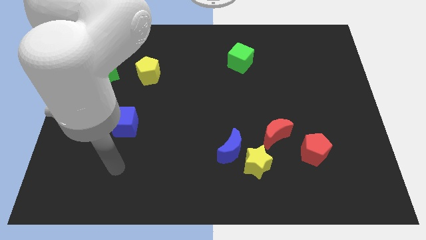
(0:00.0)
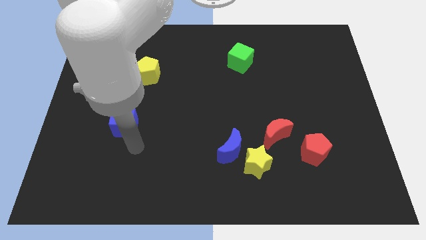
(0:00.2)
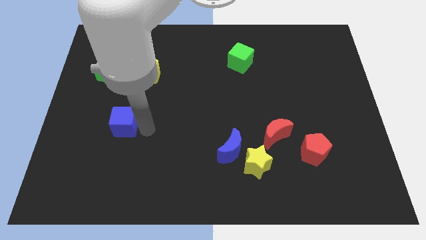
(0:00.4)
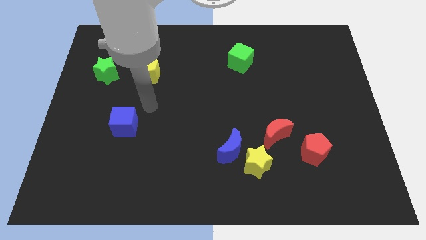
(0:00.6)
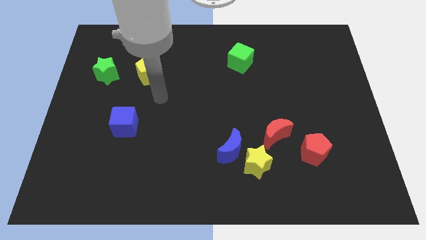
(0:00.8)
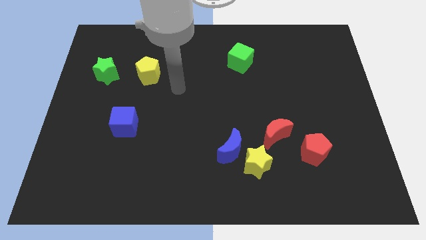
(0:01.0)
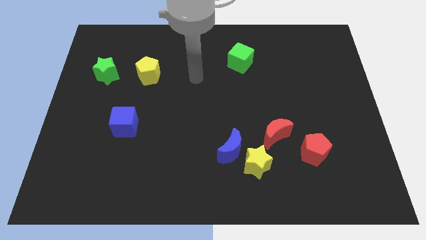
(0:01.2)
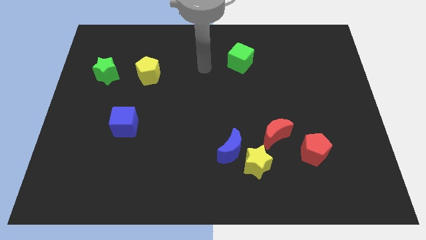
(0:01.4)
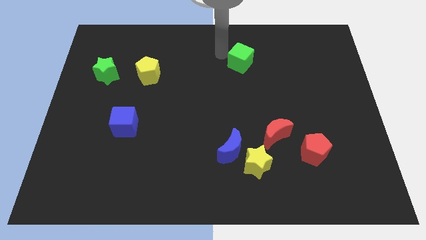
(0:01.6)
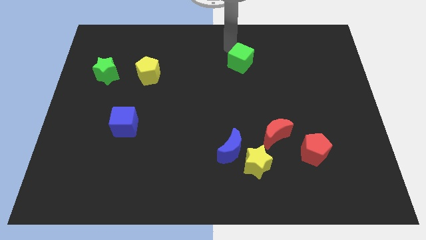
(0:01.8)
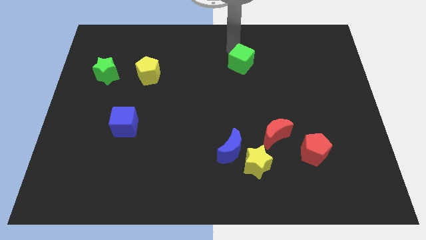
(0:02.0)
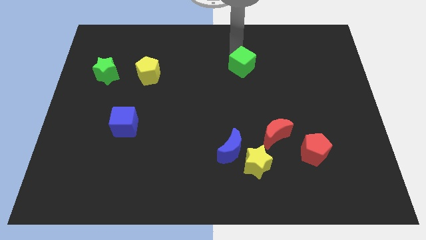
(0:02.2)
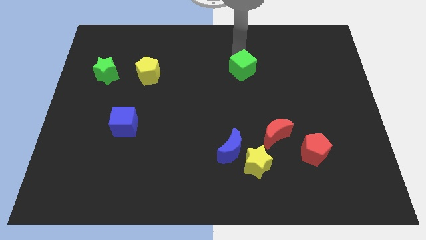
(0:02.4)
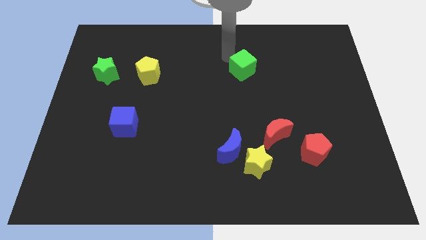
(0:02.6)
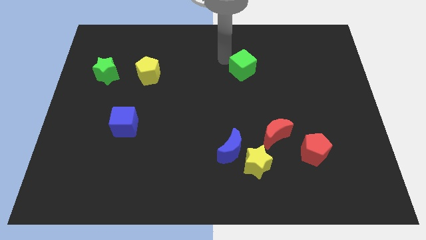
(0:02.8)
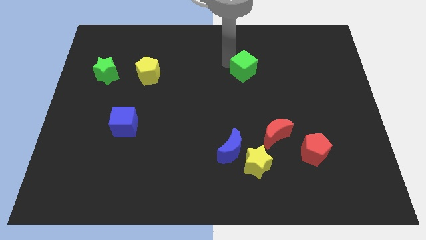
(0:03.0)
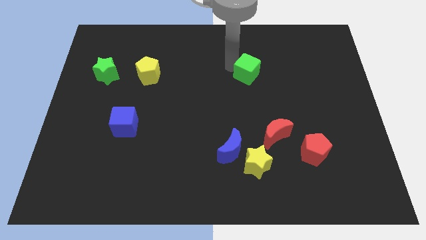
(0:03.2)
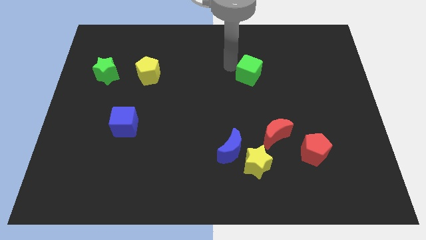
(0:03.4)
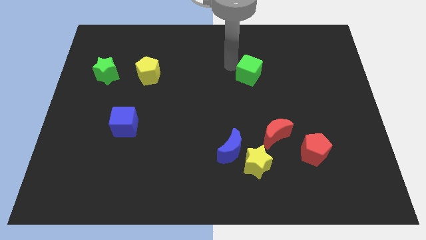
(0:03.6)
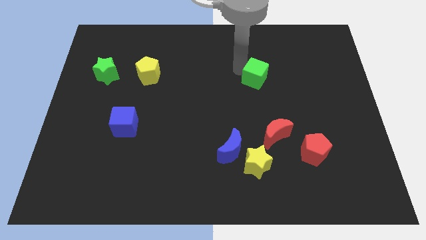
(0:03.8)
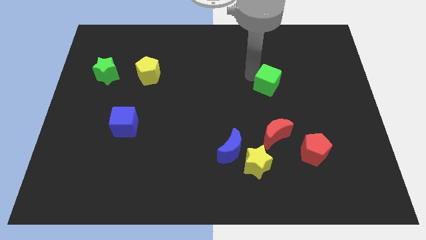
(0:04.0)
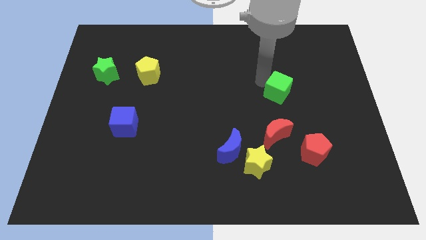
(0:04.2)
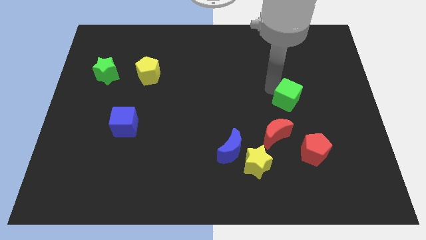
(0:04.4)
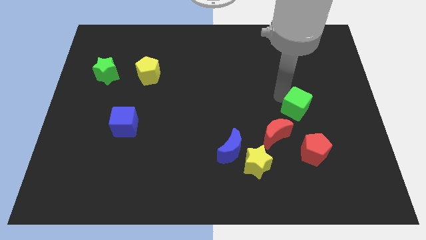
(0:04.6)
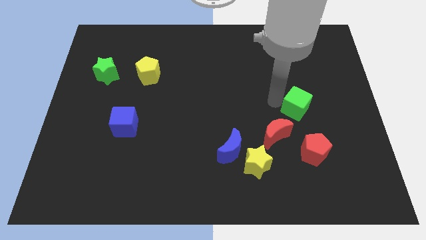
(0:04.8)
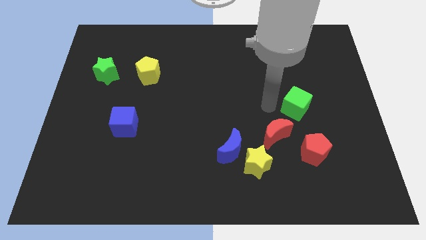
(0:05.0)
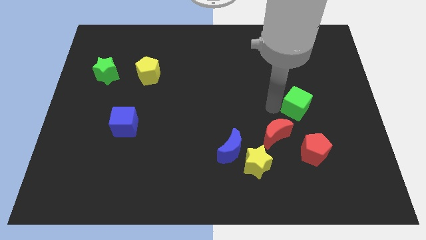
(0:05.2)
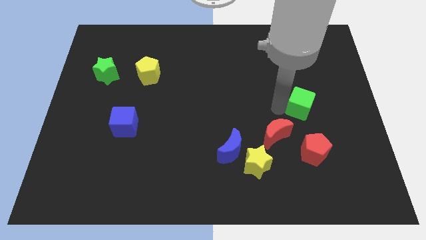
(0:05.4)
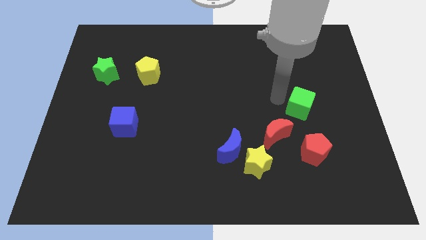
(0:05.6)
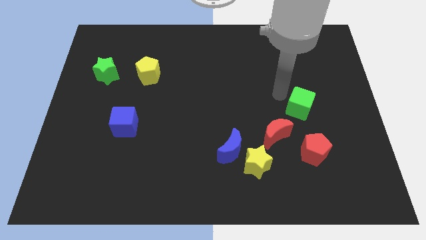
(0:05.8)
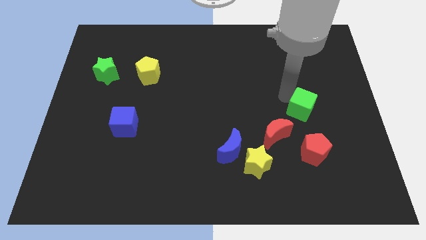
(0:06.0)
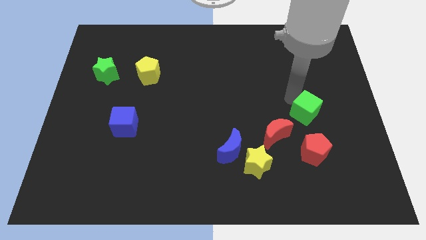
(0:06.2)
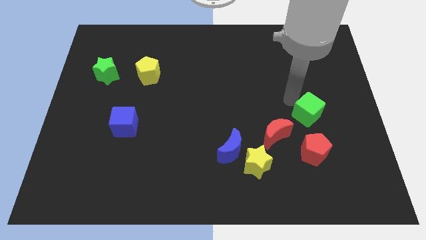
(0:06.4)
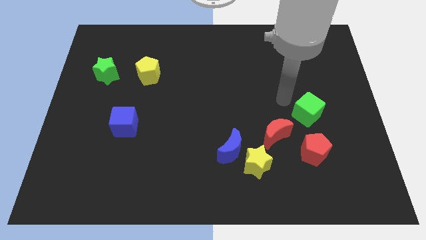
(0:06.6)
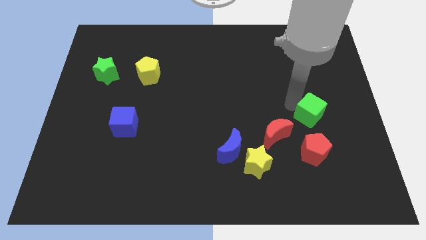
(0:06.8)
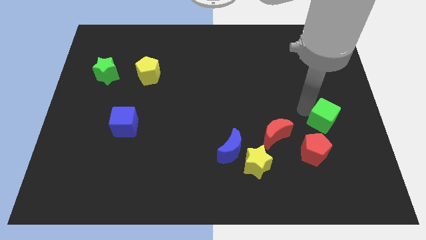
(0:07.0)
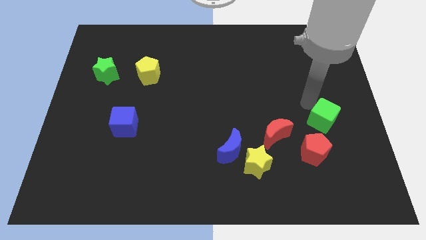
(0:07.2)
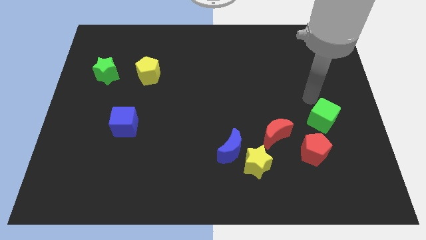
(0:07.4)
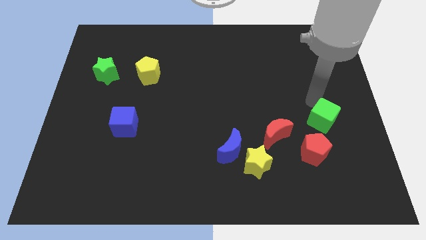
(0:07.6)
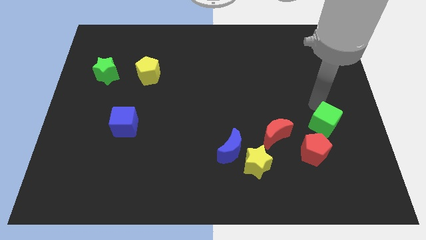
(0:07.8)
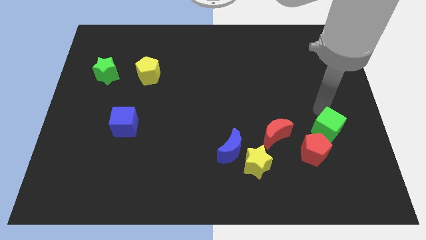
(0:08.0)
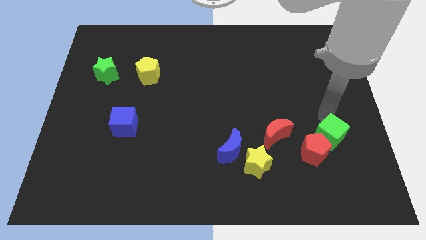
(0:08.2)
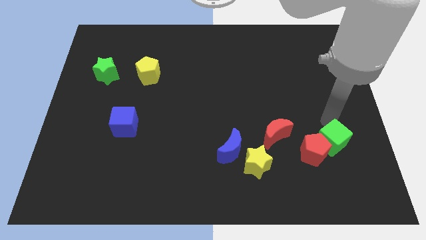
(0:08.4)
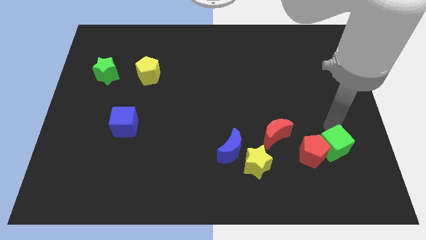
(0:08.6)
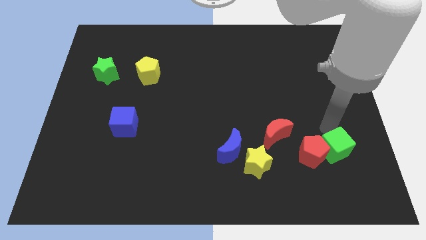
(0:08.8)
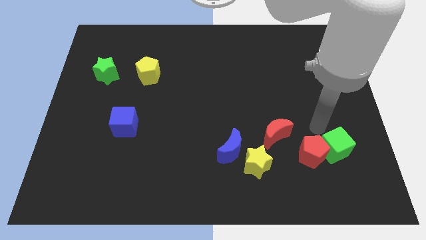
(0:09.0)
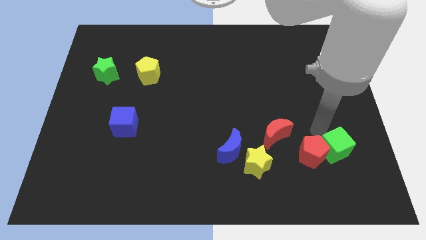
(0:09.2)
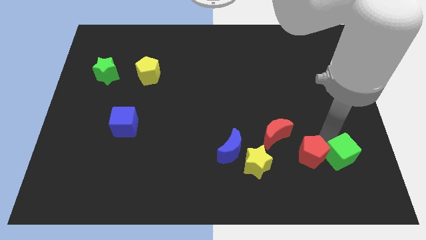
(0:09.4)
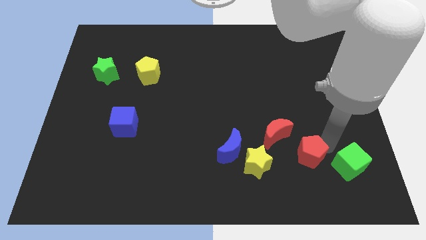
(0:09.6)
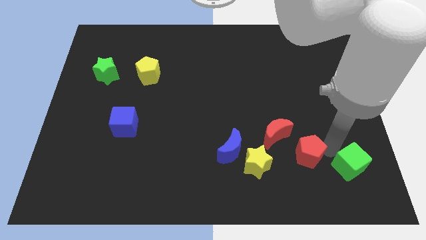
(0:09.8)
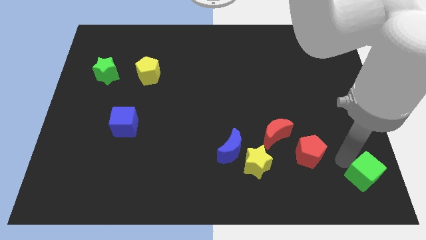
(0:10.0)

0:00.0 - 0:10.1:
push the green cube to the bottom right of the board

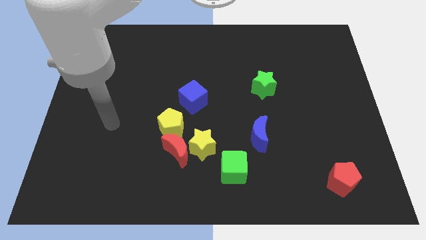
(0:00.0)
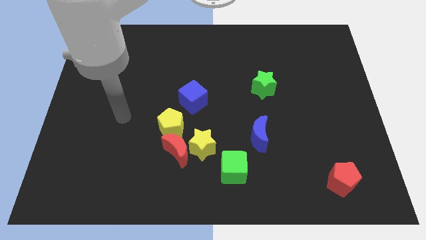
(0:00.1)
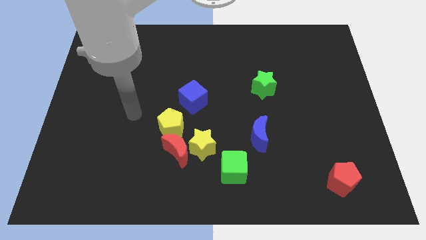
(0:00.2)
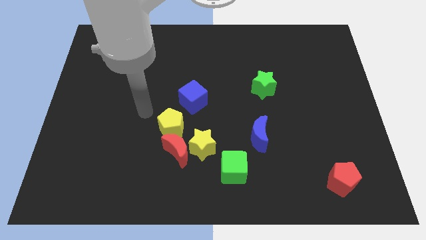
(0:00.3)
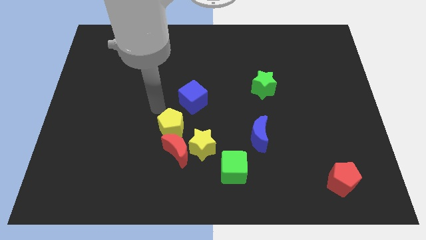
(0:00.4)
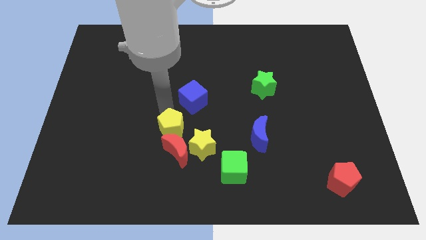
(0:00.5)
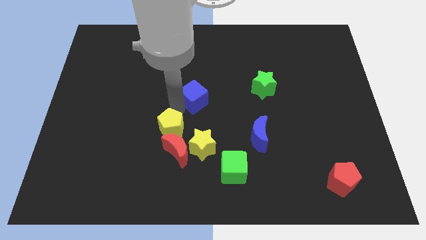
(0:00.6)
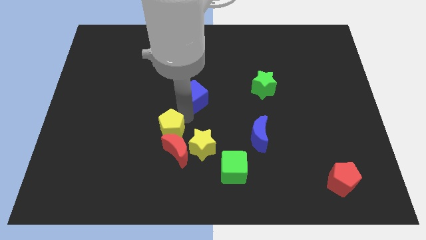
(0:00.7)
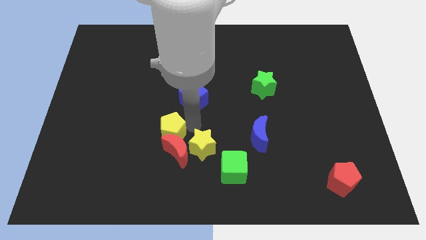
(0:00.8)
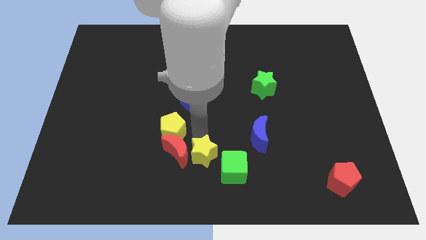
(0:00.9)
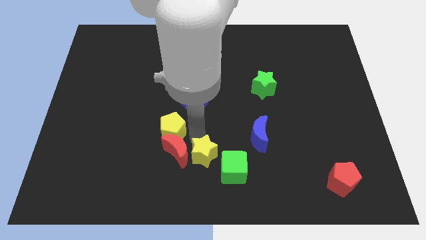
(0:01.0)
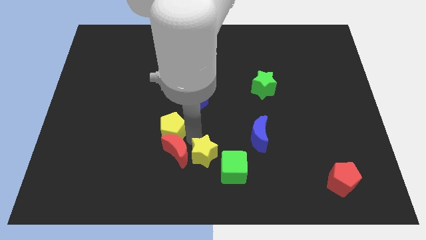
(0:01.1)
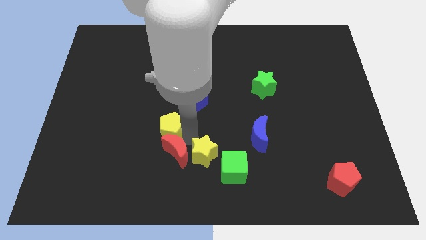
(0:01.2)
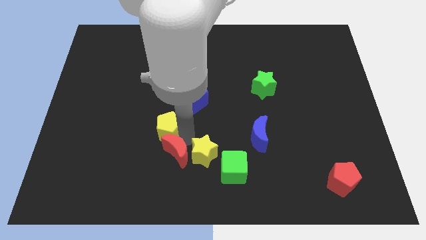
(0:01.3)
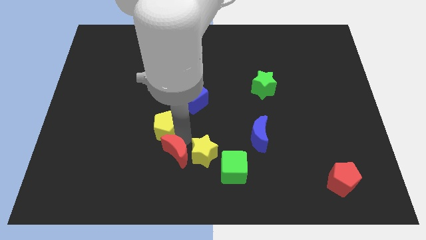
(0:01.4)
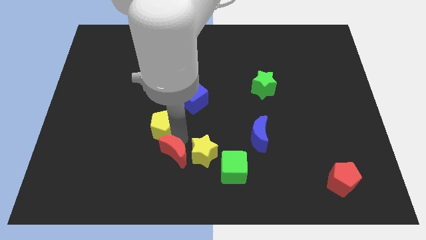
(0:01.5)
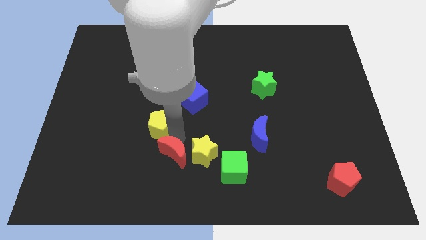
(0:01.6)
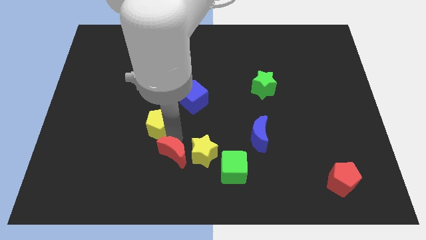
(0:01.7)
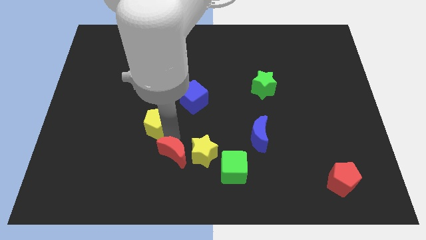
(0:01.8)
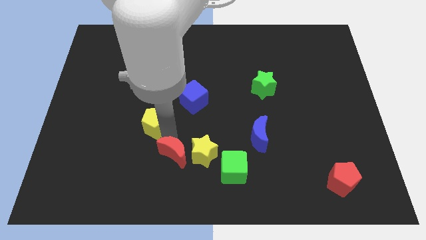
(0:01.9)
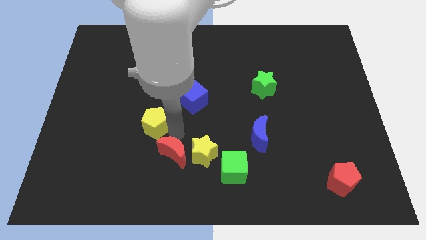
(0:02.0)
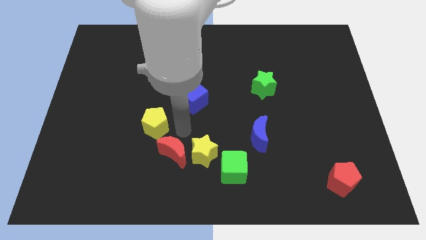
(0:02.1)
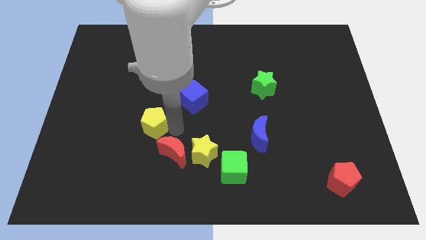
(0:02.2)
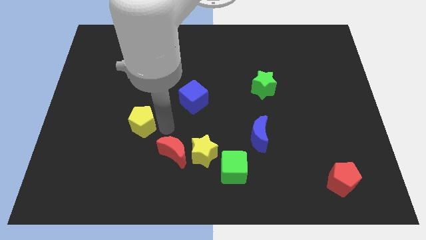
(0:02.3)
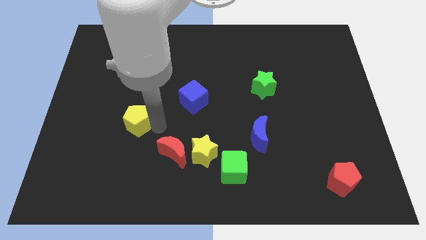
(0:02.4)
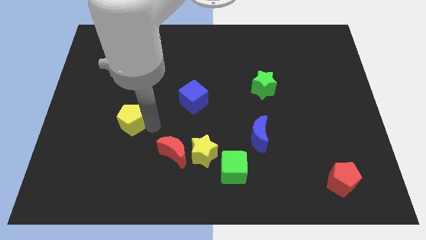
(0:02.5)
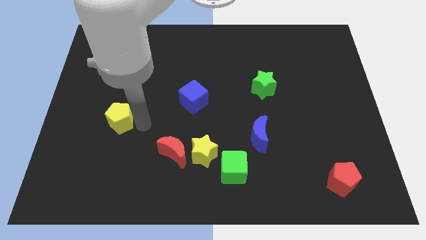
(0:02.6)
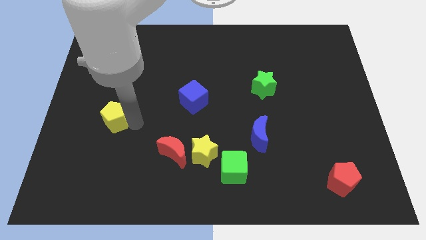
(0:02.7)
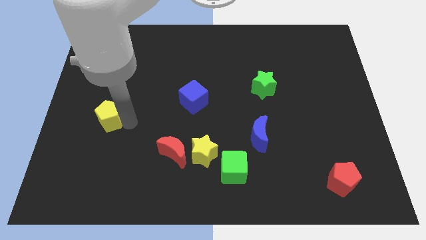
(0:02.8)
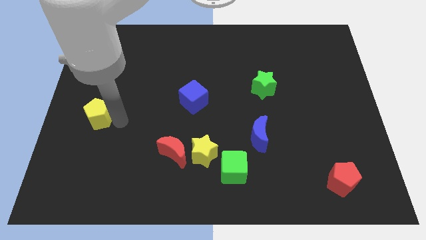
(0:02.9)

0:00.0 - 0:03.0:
push the yellow pentagon to the left side of the board
